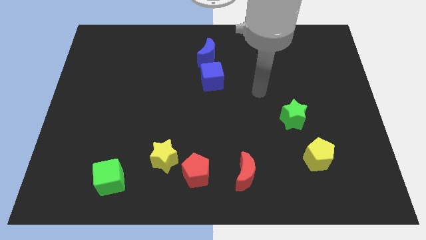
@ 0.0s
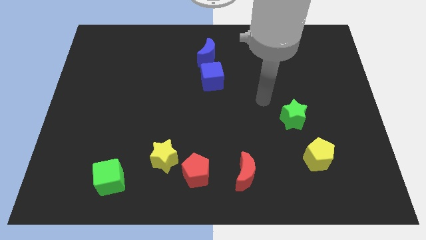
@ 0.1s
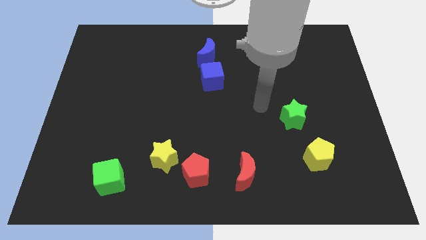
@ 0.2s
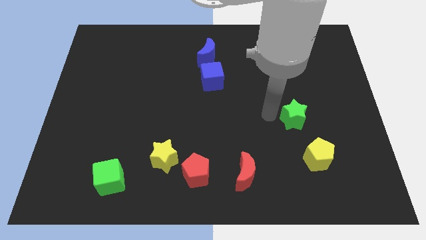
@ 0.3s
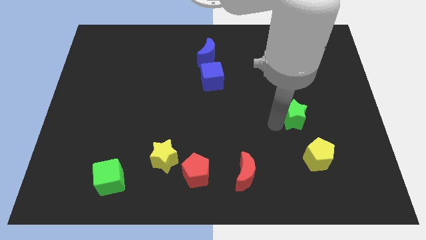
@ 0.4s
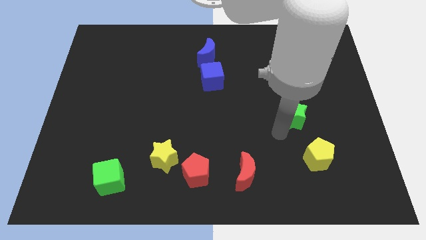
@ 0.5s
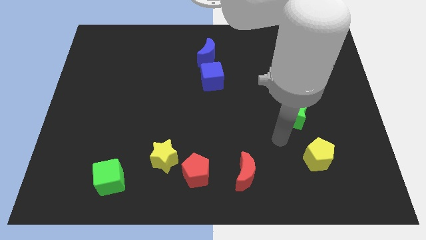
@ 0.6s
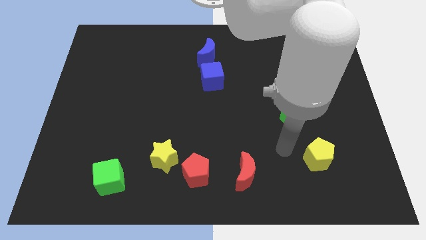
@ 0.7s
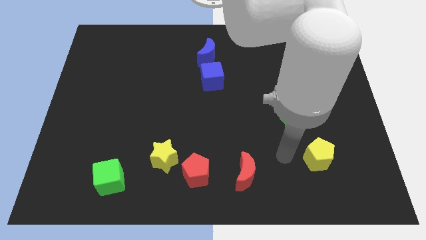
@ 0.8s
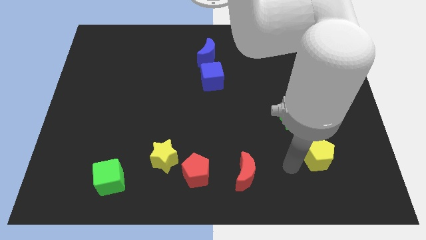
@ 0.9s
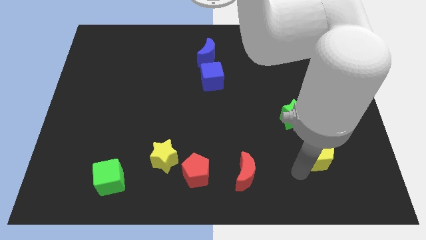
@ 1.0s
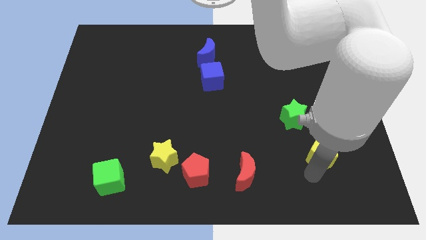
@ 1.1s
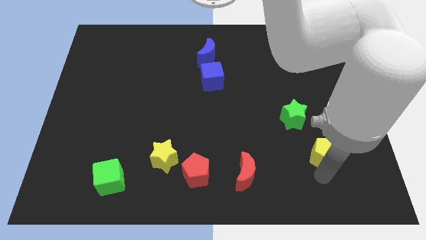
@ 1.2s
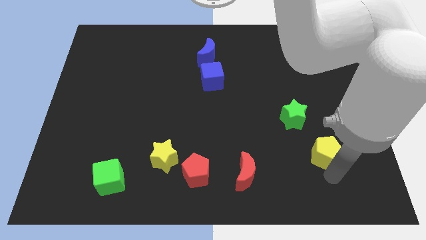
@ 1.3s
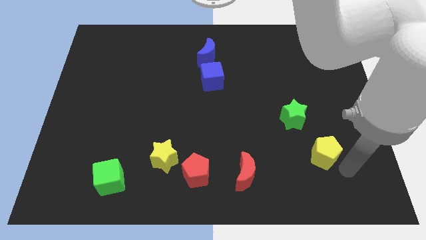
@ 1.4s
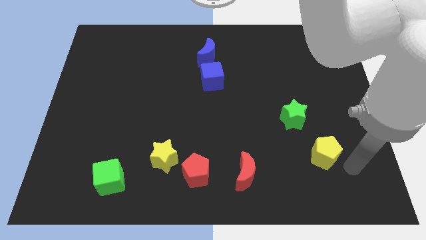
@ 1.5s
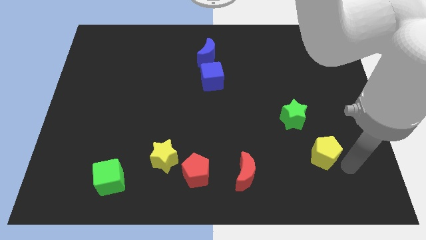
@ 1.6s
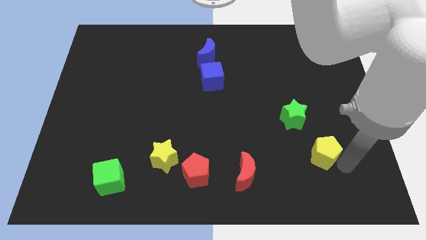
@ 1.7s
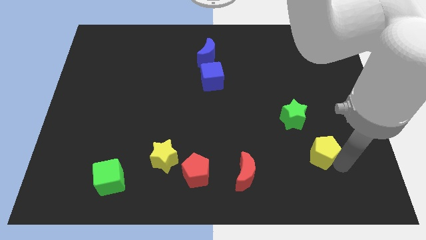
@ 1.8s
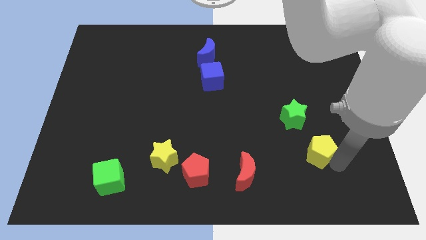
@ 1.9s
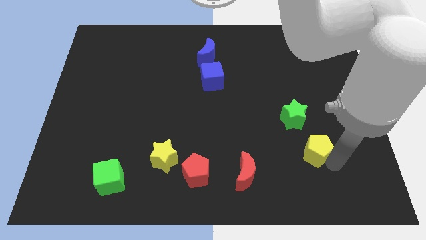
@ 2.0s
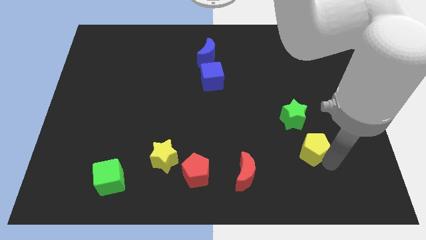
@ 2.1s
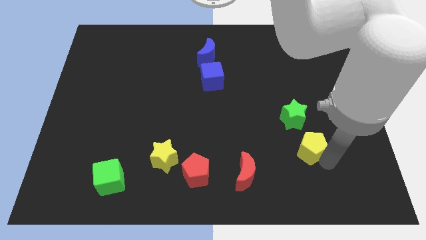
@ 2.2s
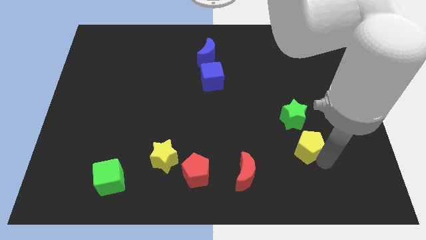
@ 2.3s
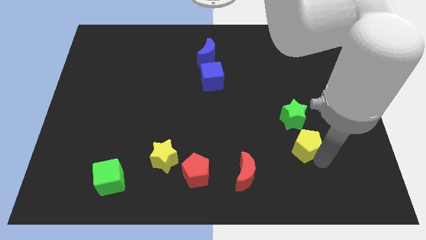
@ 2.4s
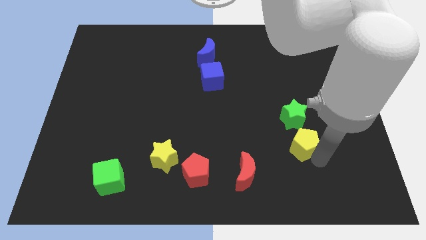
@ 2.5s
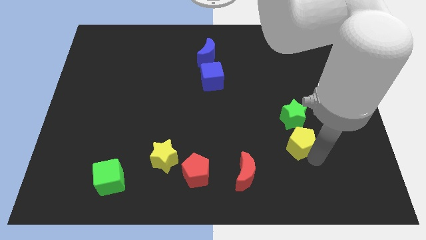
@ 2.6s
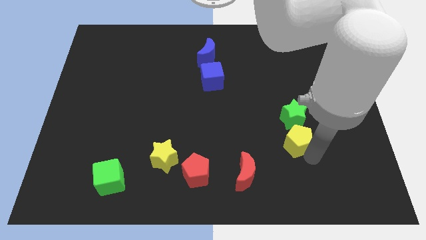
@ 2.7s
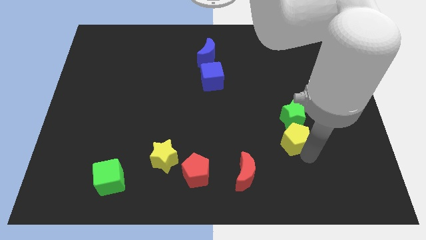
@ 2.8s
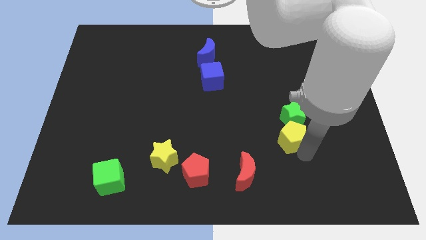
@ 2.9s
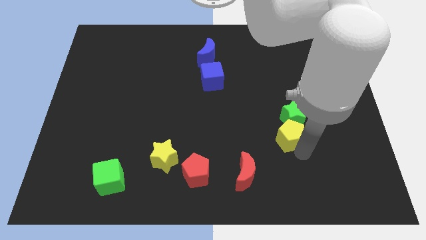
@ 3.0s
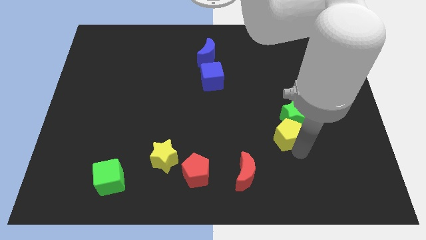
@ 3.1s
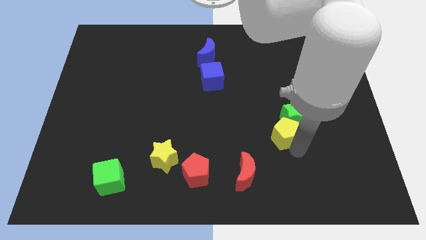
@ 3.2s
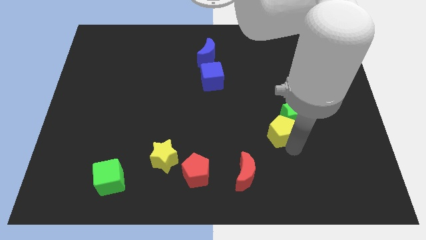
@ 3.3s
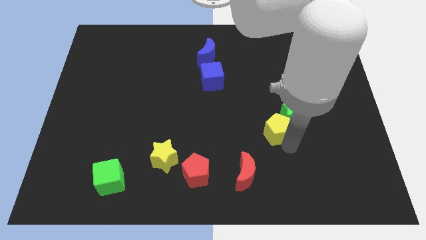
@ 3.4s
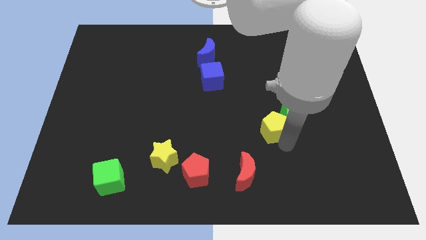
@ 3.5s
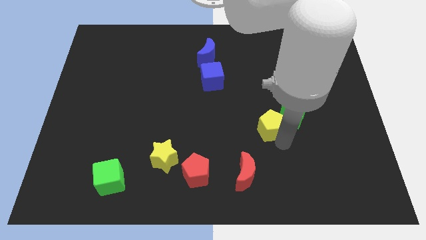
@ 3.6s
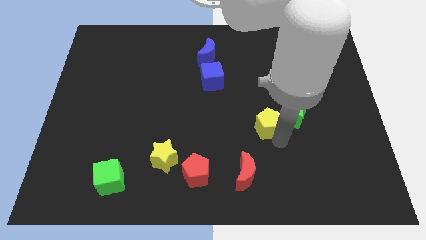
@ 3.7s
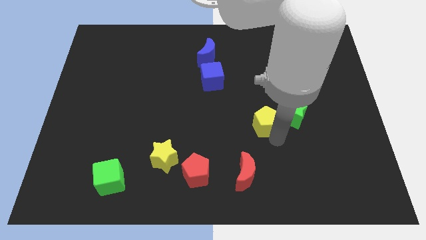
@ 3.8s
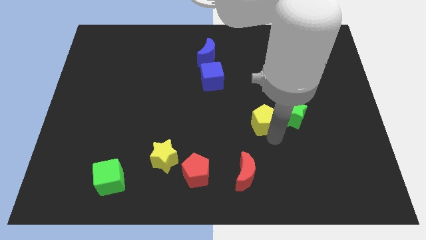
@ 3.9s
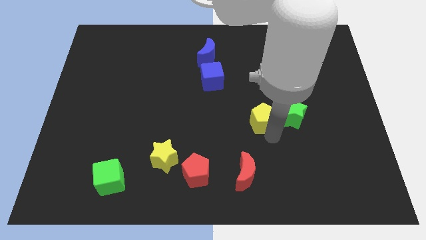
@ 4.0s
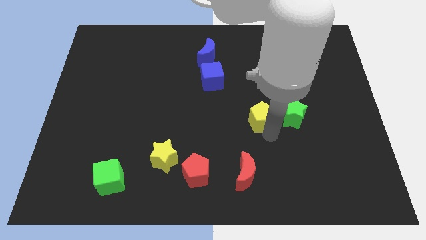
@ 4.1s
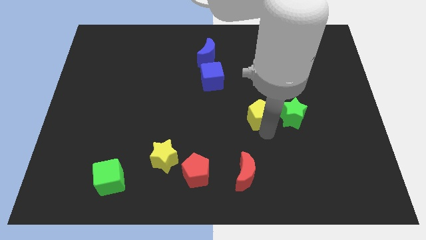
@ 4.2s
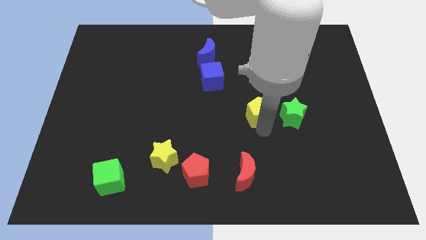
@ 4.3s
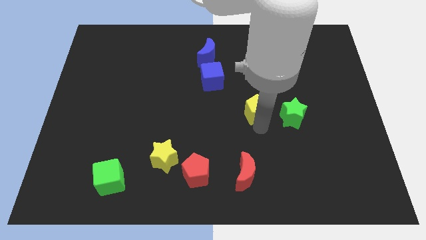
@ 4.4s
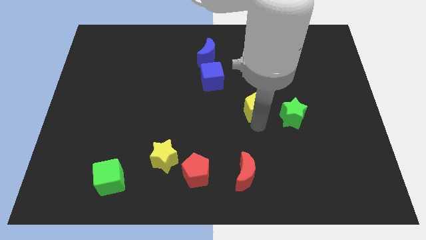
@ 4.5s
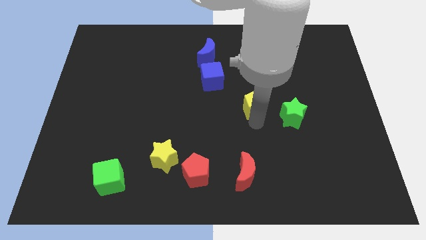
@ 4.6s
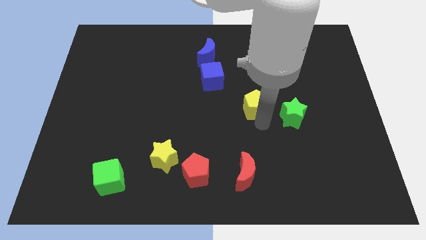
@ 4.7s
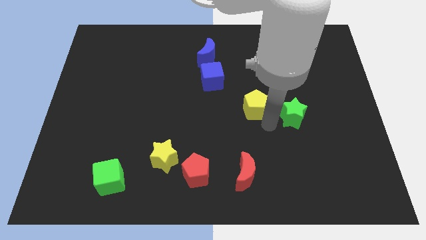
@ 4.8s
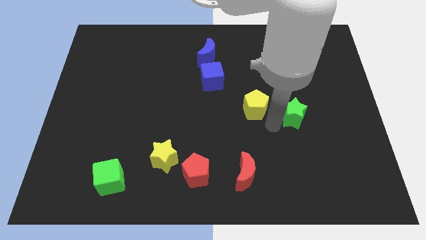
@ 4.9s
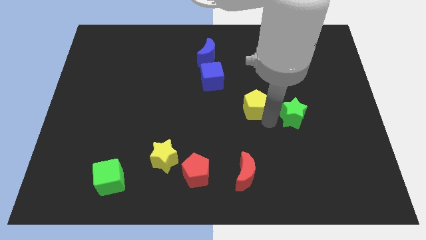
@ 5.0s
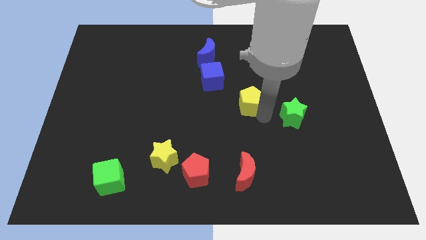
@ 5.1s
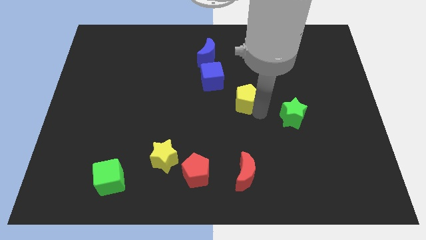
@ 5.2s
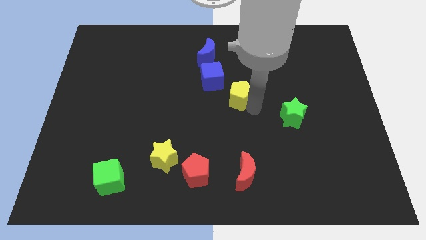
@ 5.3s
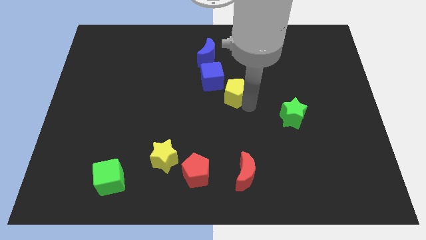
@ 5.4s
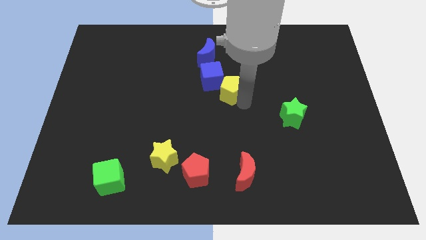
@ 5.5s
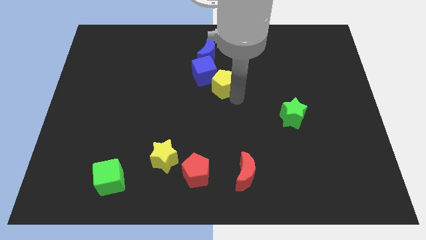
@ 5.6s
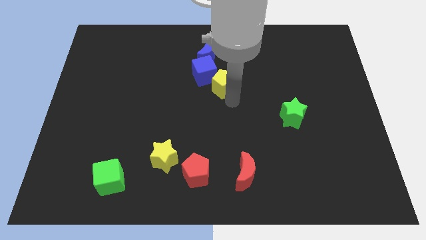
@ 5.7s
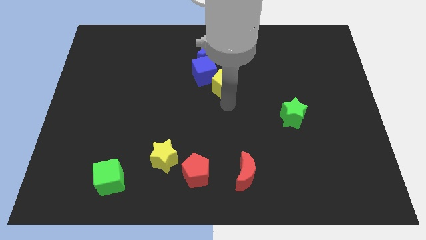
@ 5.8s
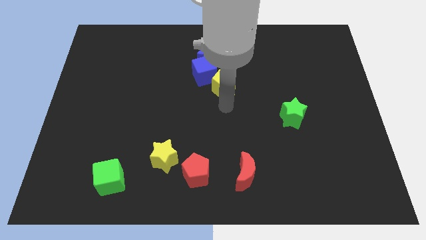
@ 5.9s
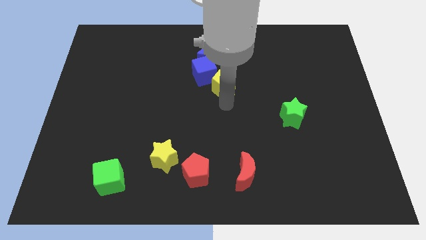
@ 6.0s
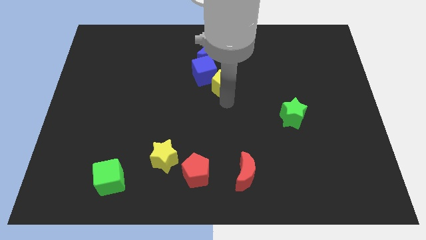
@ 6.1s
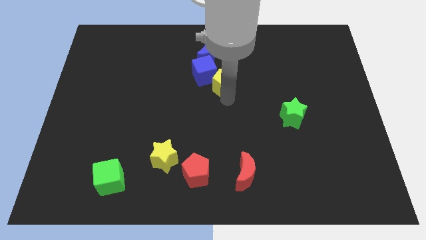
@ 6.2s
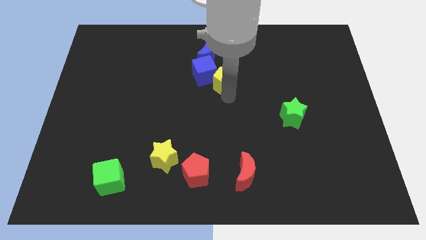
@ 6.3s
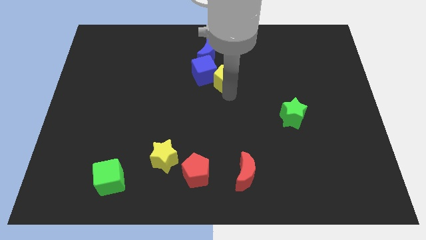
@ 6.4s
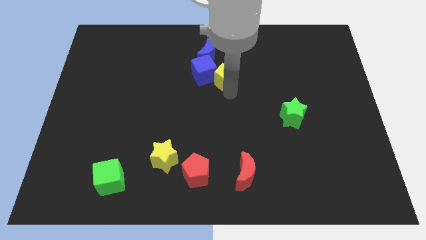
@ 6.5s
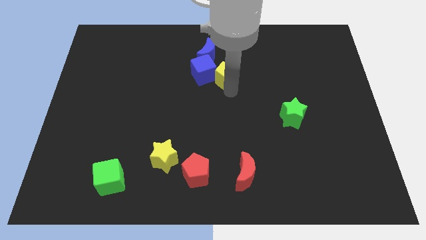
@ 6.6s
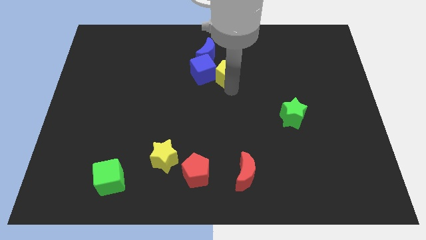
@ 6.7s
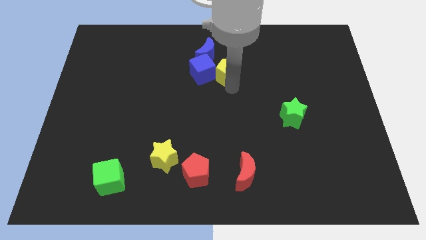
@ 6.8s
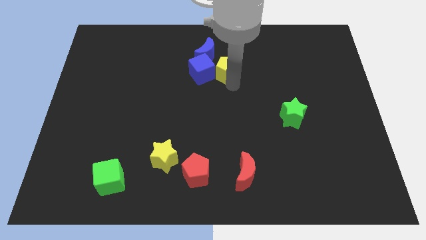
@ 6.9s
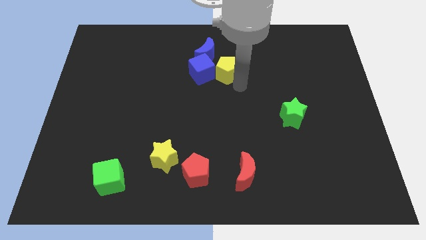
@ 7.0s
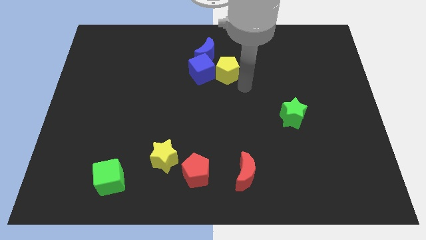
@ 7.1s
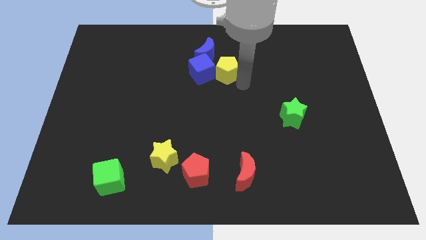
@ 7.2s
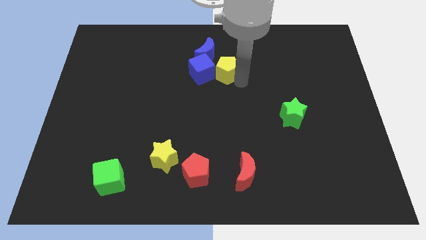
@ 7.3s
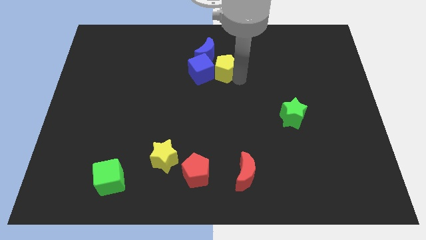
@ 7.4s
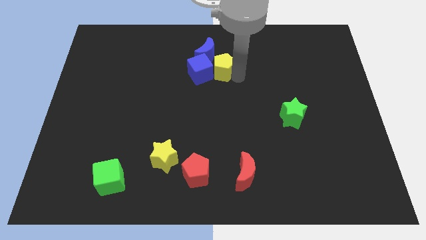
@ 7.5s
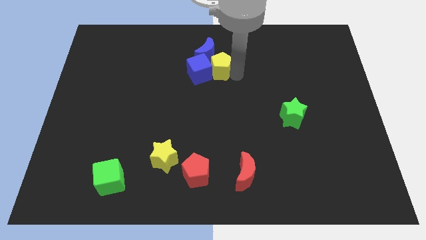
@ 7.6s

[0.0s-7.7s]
slide the yellow pentagon close to the blue moon
